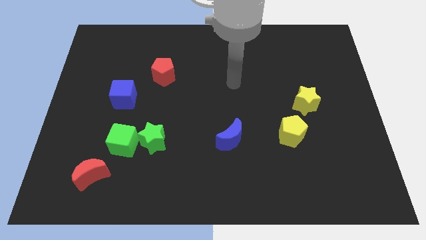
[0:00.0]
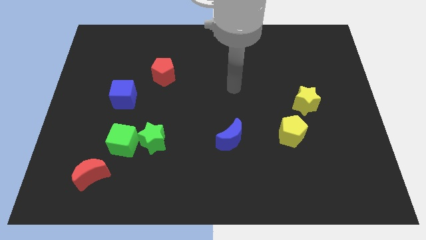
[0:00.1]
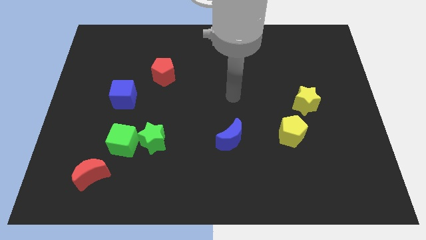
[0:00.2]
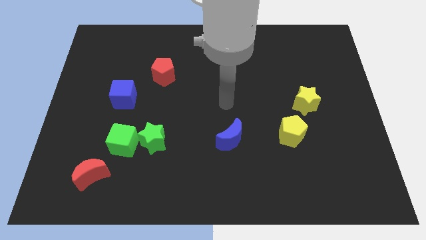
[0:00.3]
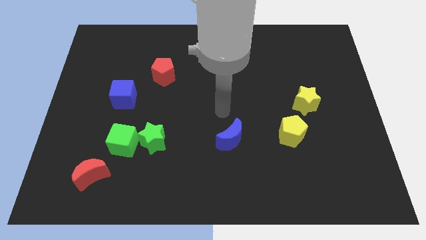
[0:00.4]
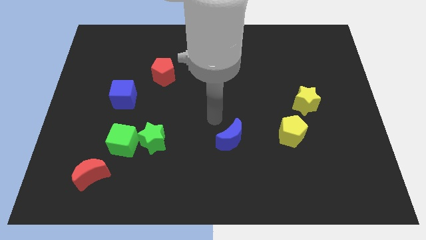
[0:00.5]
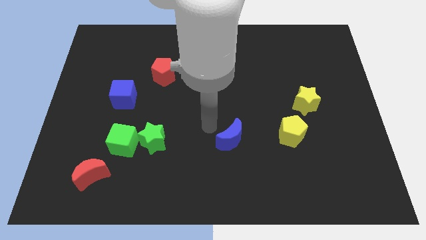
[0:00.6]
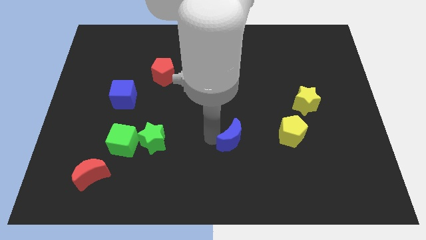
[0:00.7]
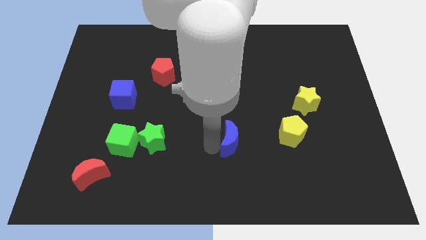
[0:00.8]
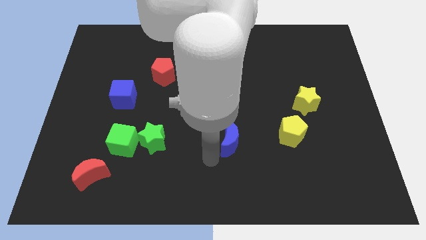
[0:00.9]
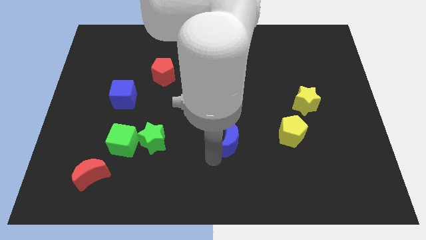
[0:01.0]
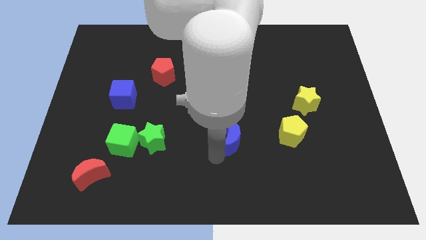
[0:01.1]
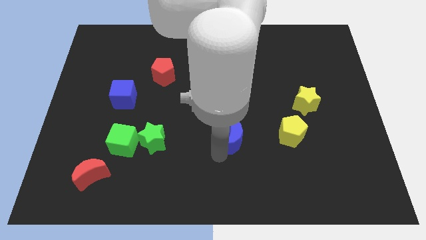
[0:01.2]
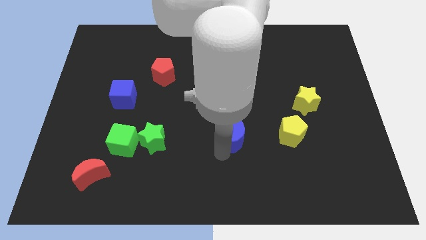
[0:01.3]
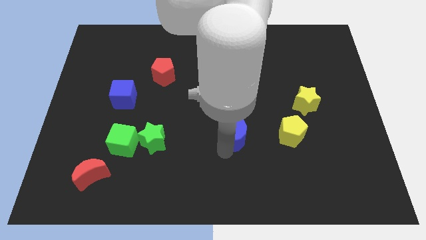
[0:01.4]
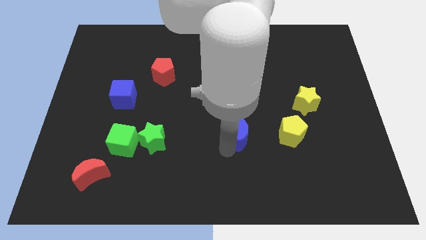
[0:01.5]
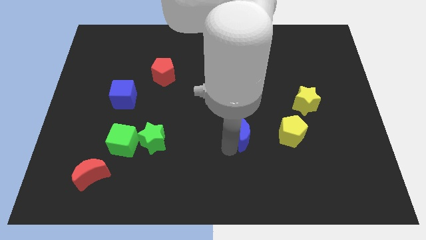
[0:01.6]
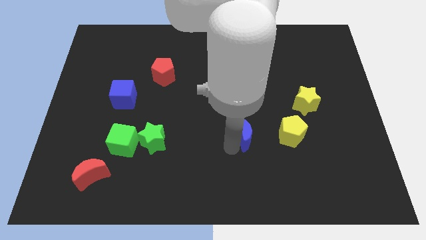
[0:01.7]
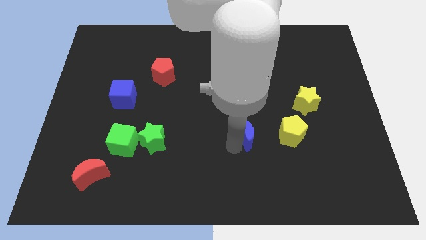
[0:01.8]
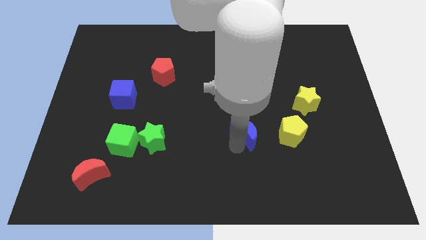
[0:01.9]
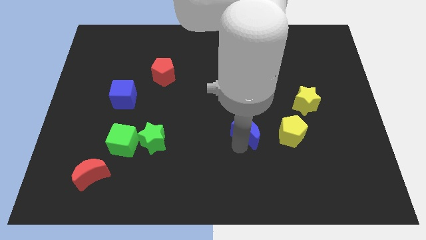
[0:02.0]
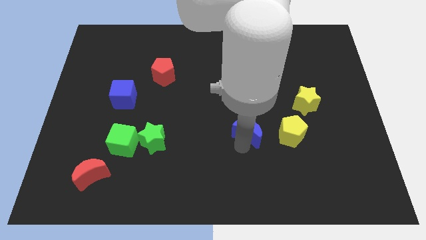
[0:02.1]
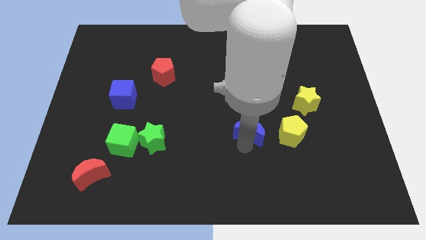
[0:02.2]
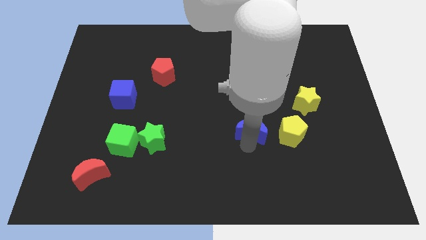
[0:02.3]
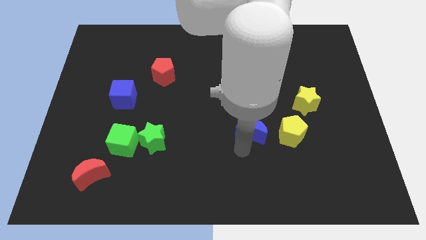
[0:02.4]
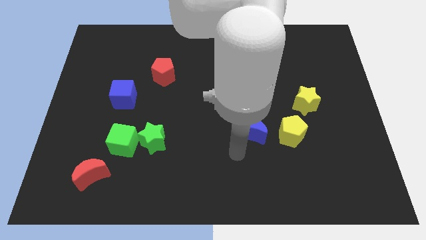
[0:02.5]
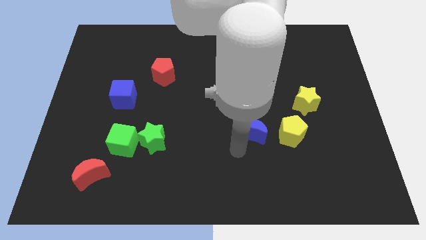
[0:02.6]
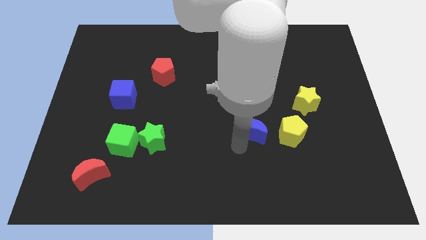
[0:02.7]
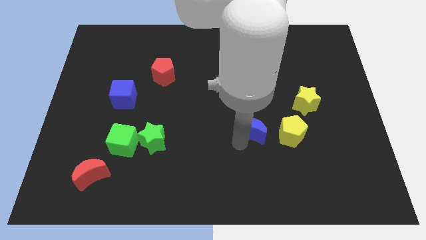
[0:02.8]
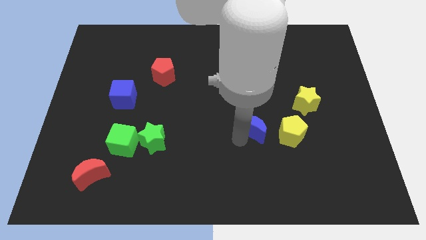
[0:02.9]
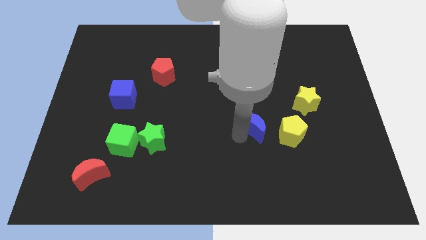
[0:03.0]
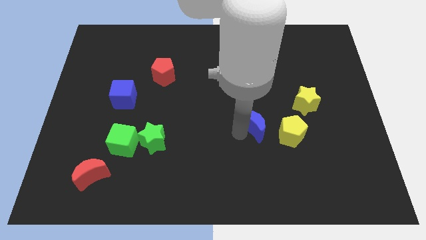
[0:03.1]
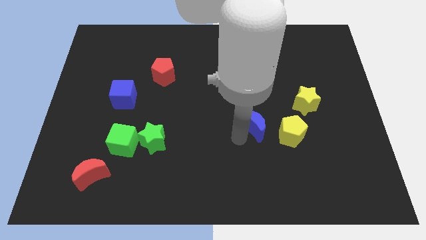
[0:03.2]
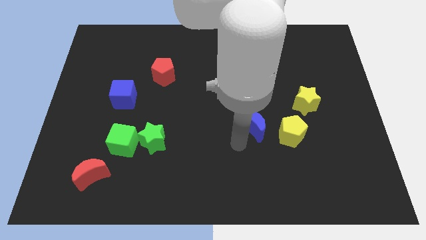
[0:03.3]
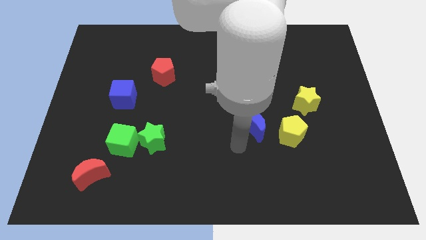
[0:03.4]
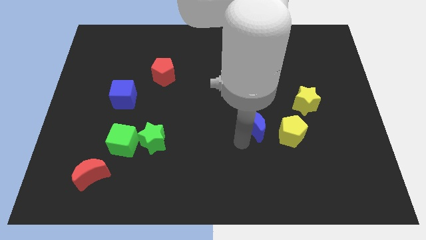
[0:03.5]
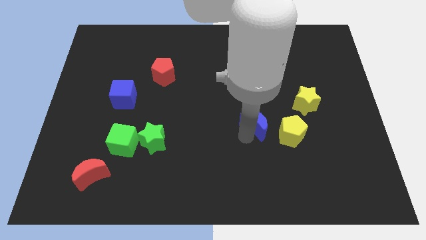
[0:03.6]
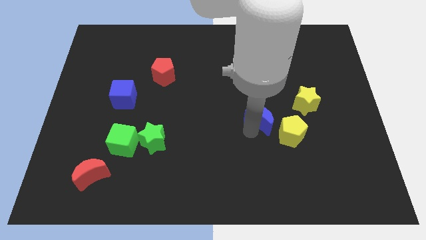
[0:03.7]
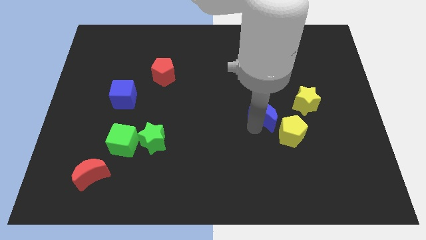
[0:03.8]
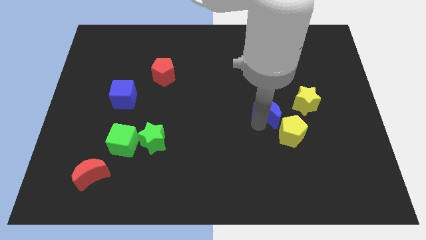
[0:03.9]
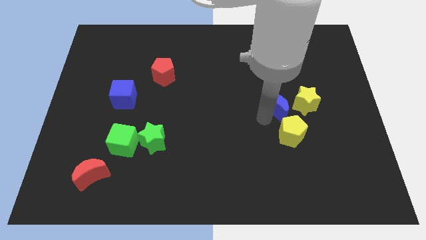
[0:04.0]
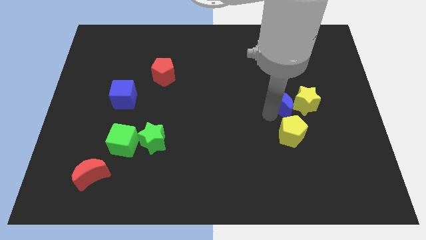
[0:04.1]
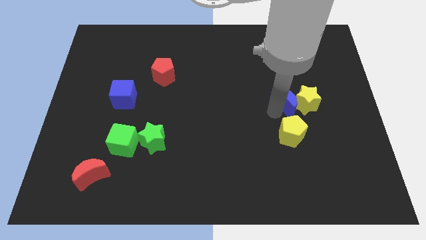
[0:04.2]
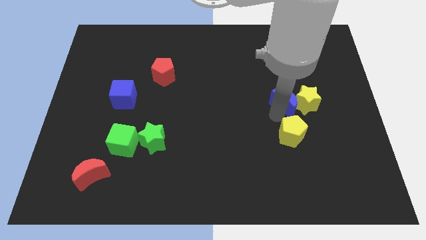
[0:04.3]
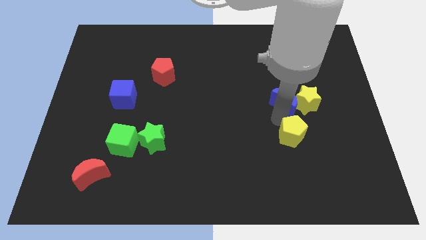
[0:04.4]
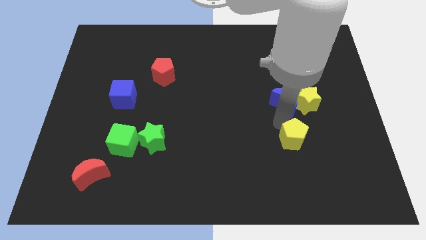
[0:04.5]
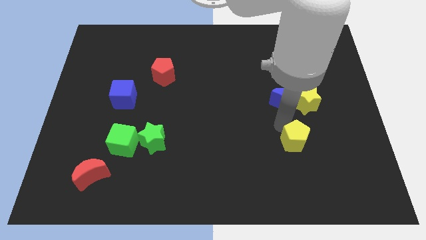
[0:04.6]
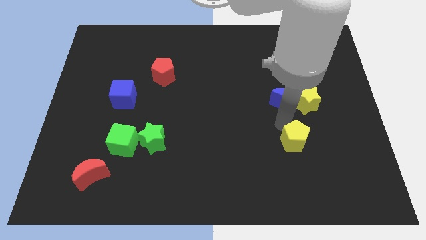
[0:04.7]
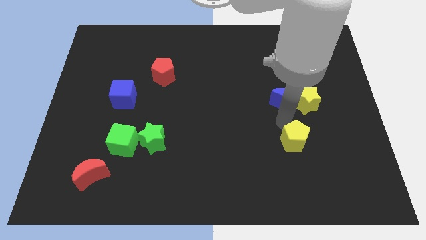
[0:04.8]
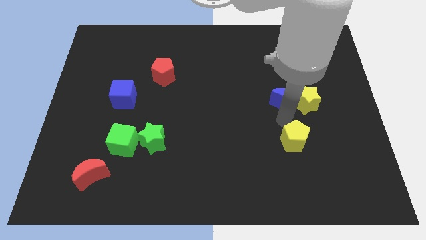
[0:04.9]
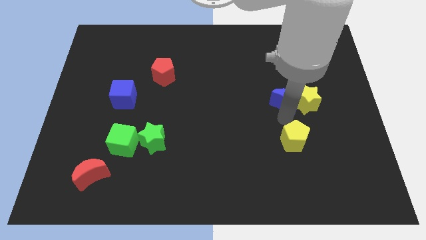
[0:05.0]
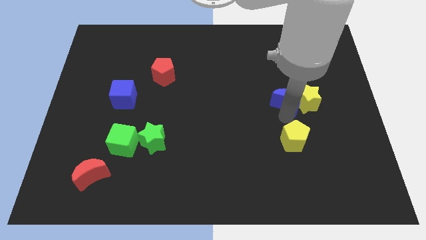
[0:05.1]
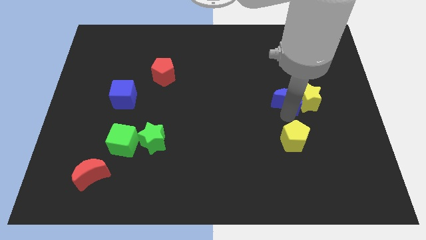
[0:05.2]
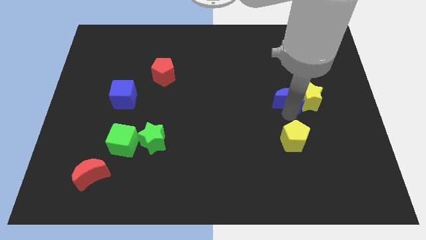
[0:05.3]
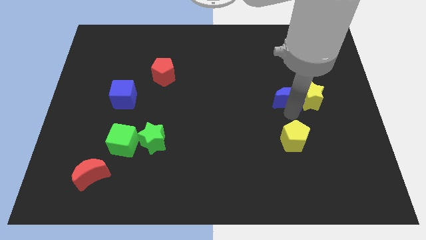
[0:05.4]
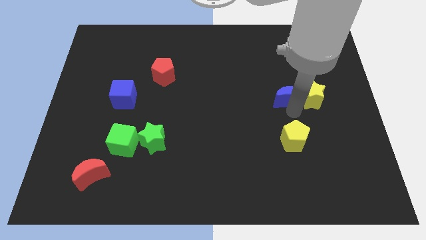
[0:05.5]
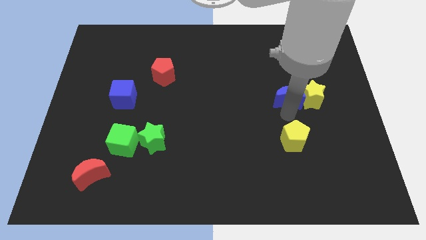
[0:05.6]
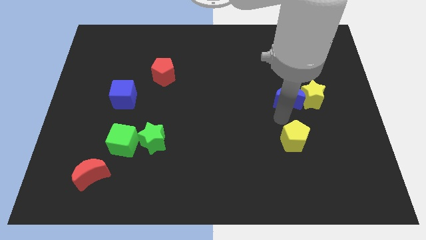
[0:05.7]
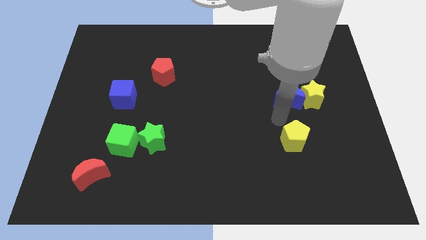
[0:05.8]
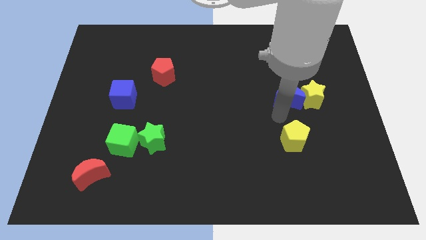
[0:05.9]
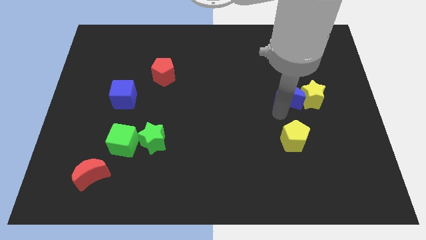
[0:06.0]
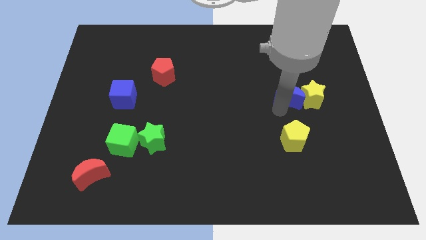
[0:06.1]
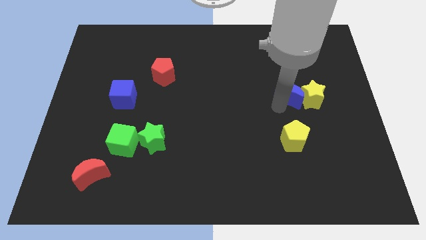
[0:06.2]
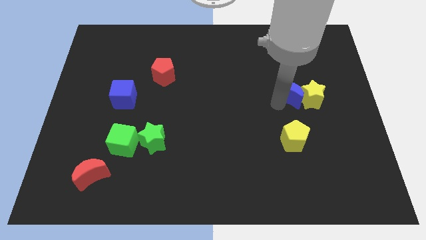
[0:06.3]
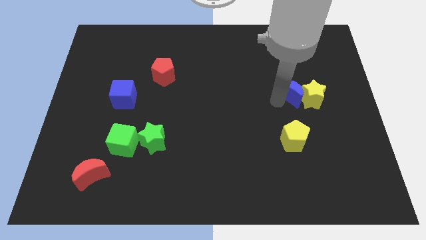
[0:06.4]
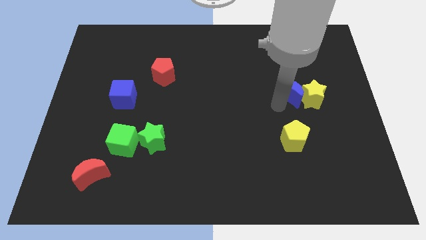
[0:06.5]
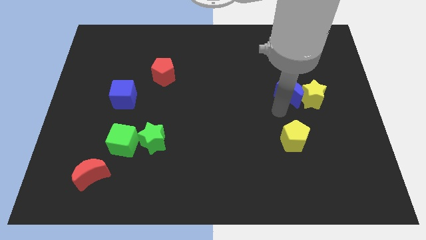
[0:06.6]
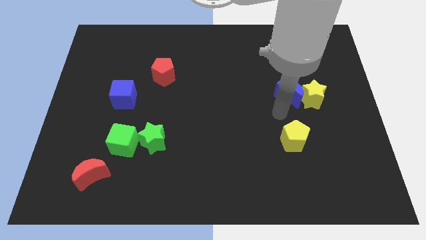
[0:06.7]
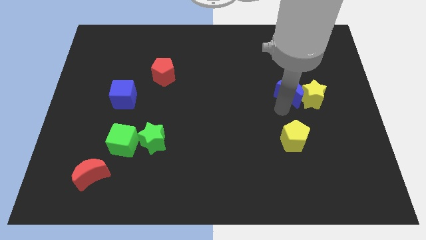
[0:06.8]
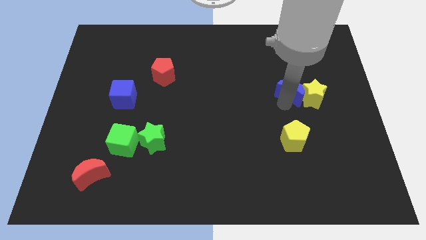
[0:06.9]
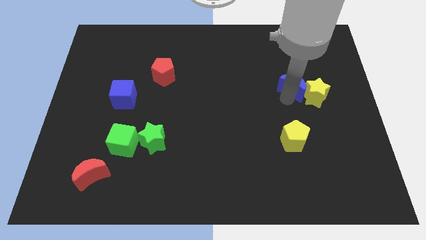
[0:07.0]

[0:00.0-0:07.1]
push the blue moon up and then to the right

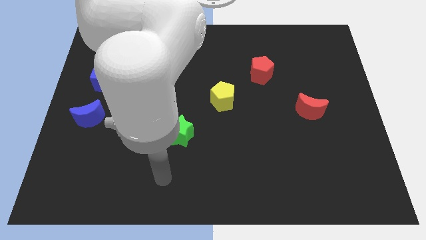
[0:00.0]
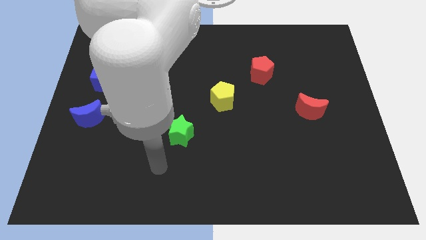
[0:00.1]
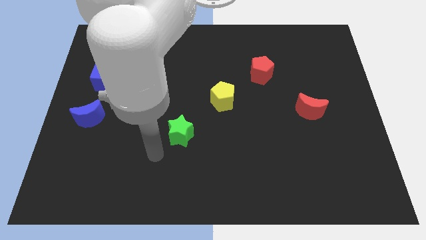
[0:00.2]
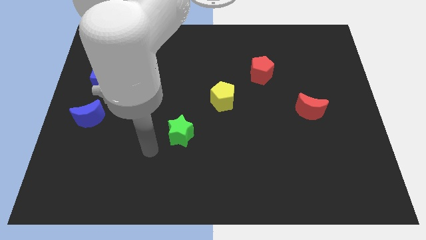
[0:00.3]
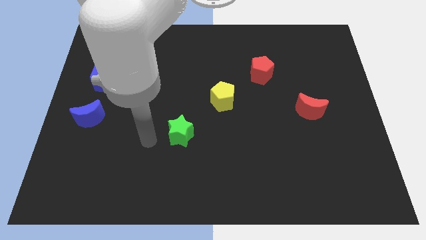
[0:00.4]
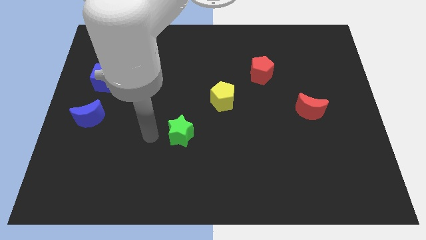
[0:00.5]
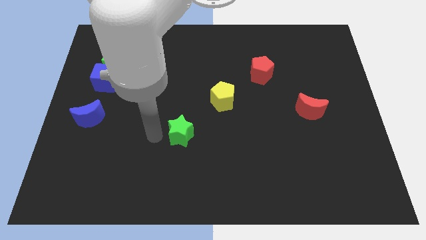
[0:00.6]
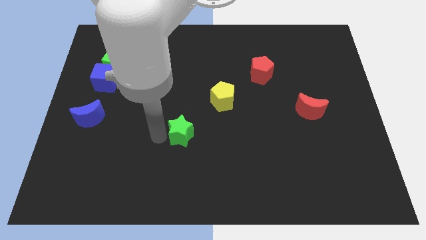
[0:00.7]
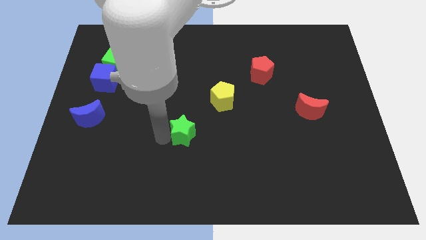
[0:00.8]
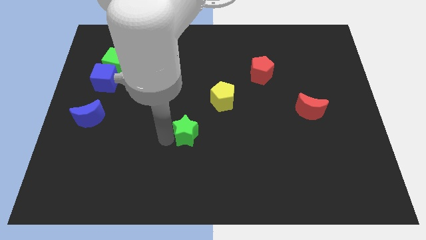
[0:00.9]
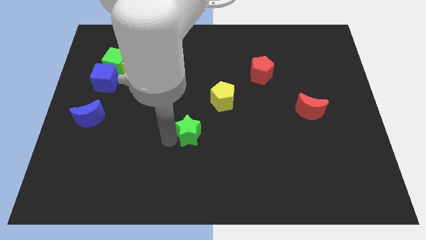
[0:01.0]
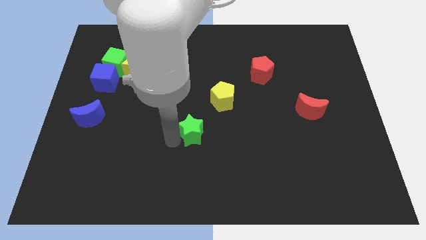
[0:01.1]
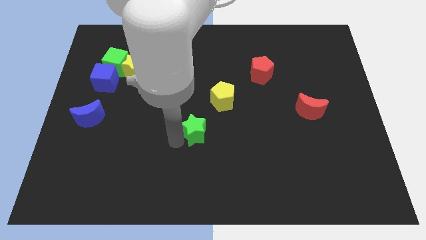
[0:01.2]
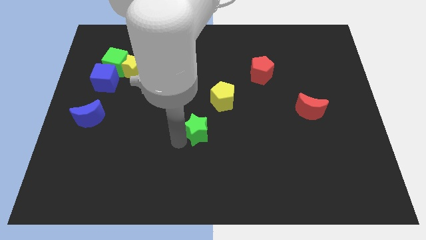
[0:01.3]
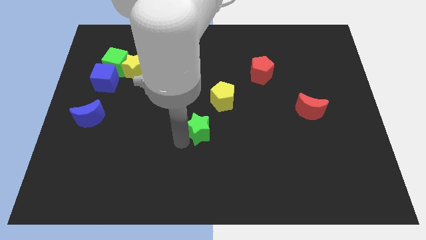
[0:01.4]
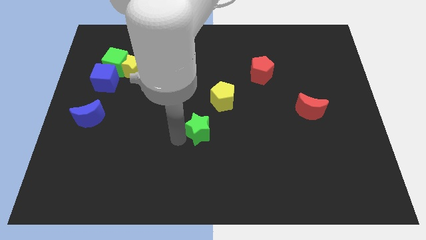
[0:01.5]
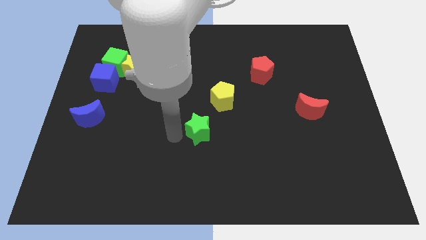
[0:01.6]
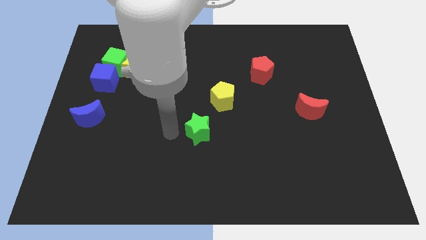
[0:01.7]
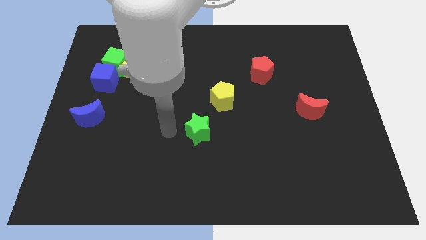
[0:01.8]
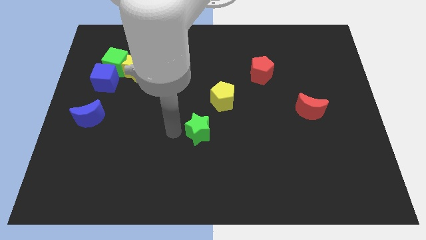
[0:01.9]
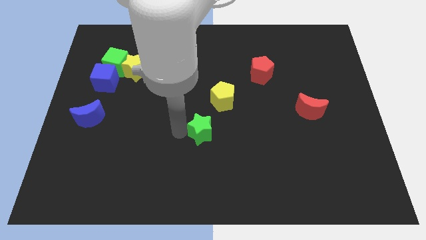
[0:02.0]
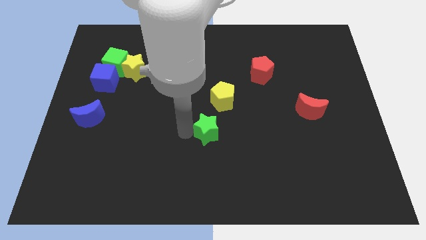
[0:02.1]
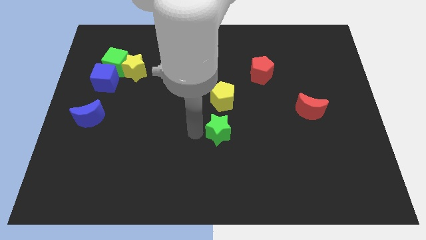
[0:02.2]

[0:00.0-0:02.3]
slide the green star a little to the right
